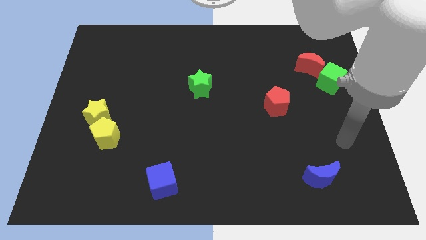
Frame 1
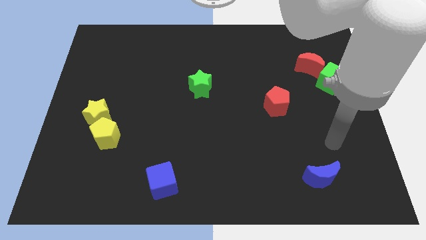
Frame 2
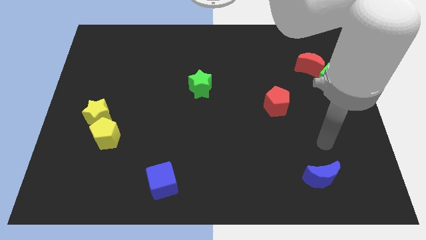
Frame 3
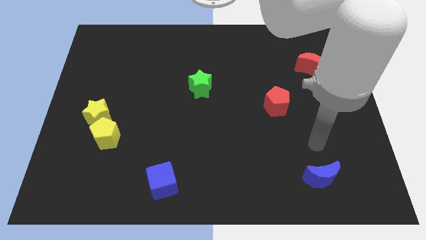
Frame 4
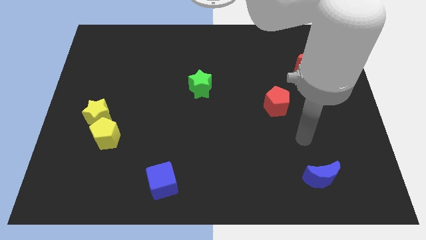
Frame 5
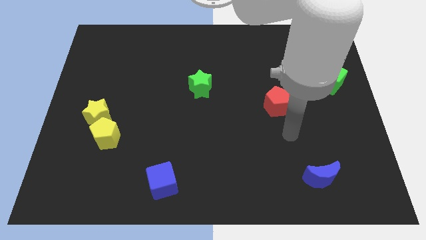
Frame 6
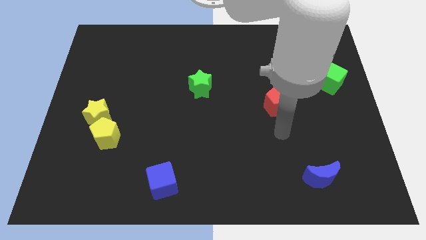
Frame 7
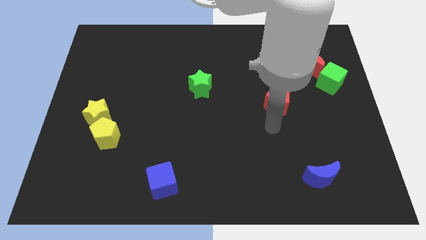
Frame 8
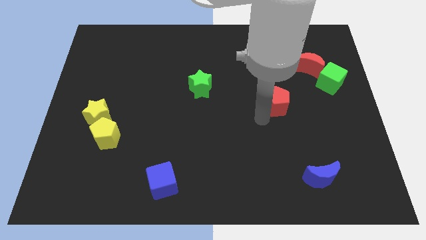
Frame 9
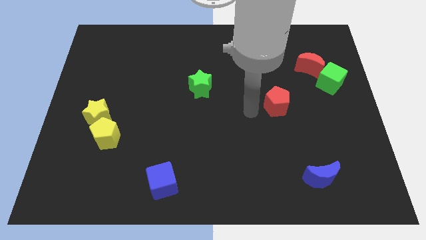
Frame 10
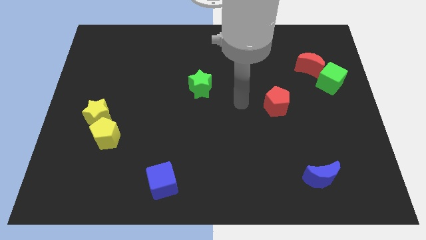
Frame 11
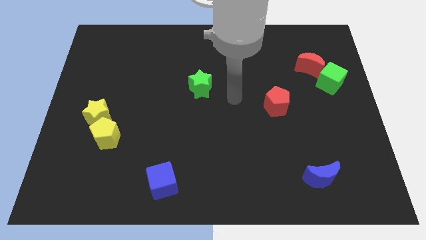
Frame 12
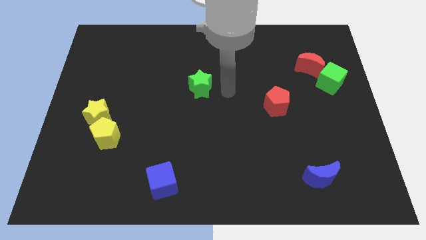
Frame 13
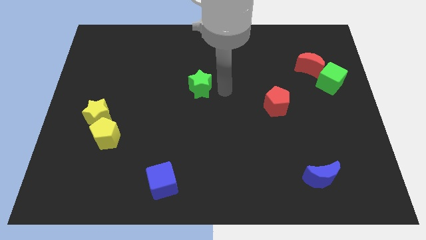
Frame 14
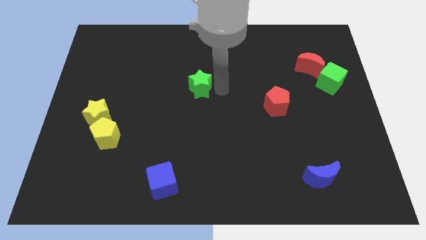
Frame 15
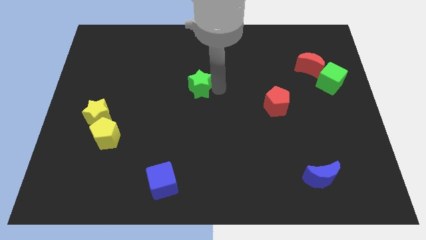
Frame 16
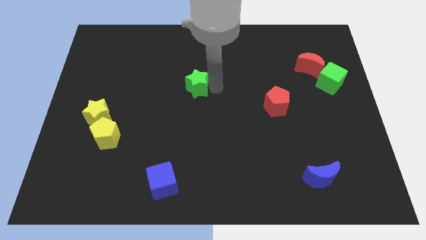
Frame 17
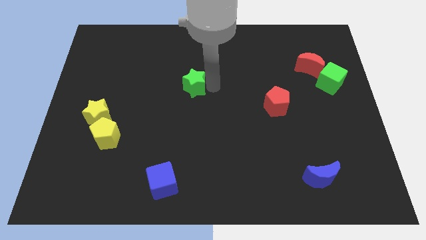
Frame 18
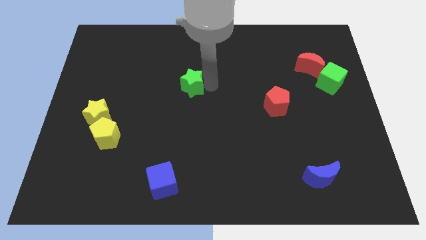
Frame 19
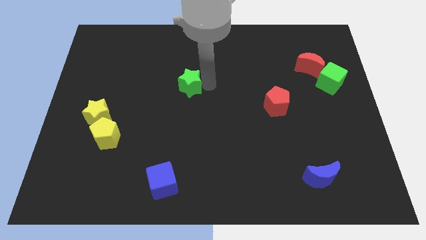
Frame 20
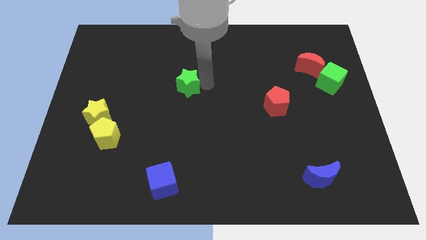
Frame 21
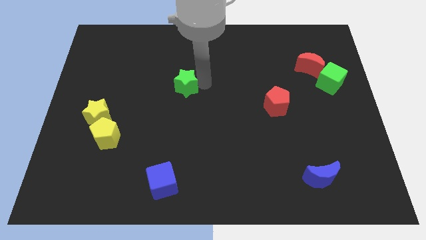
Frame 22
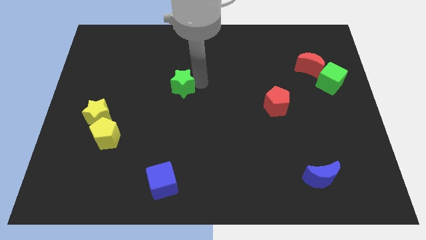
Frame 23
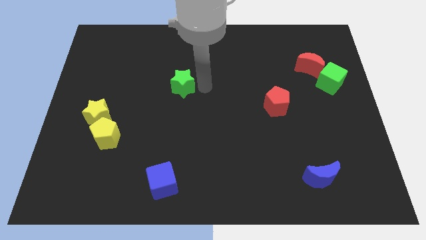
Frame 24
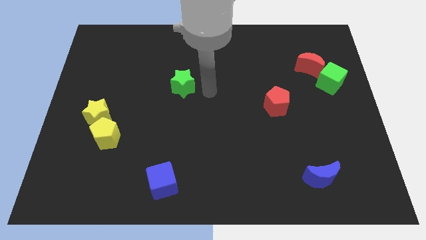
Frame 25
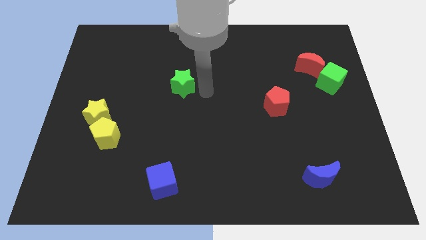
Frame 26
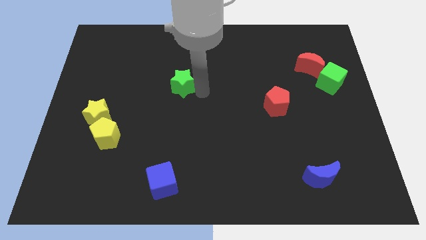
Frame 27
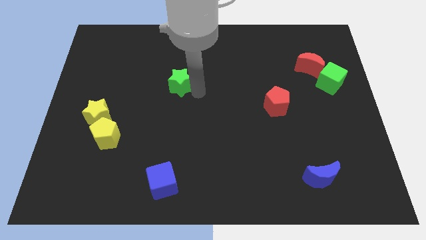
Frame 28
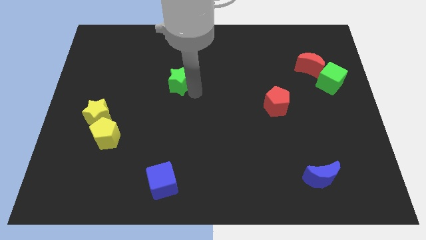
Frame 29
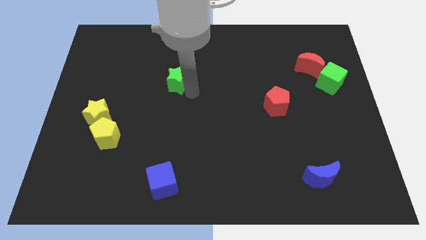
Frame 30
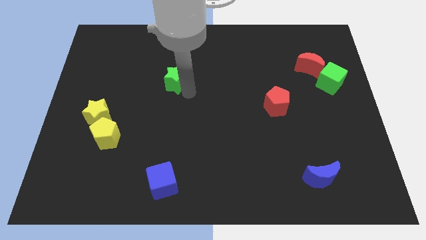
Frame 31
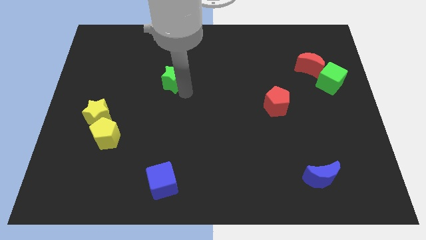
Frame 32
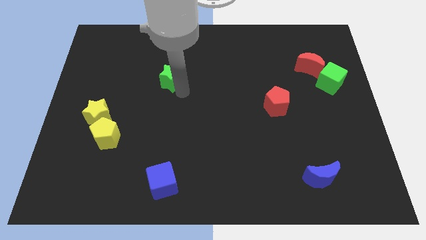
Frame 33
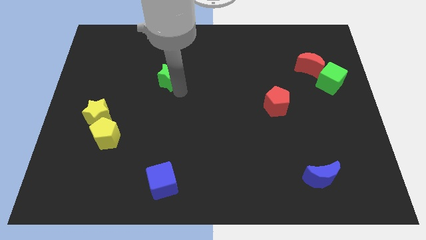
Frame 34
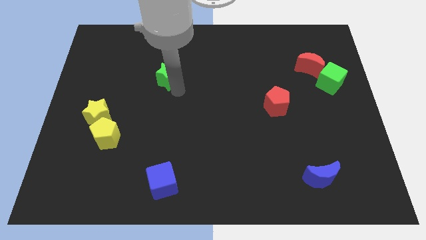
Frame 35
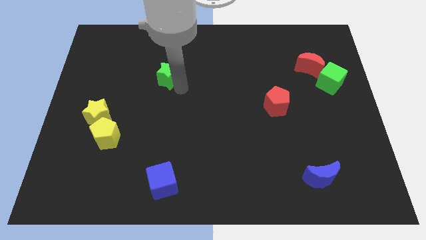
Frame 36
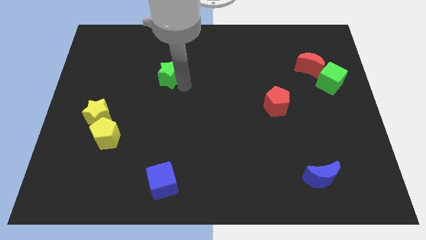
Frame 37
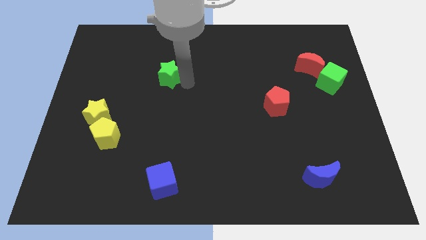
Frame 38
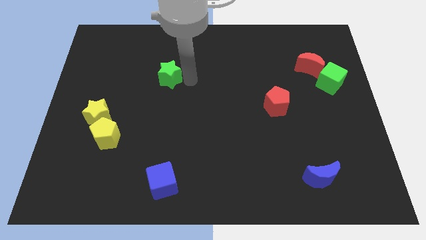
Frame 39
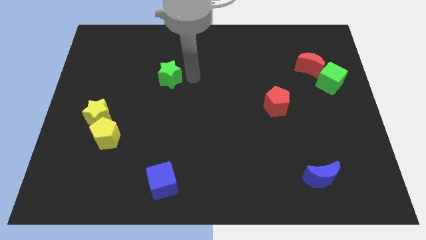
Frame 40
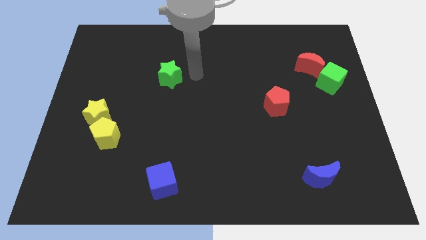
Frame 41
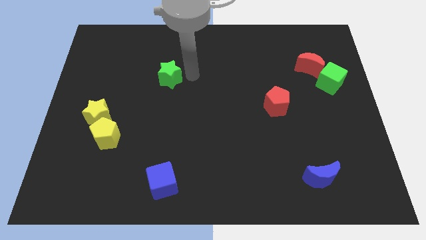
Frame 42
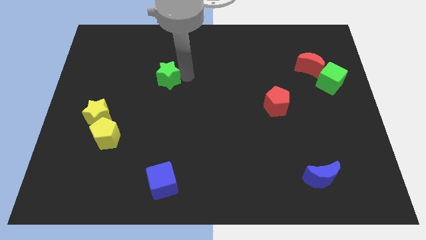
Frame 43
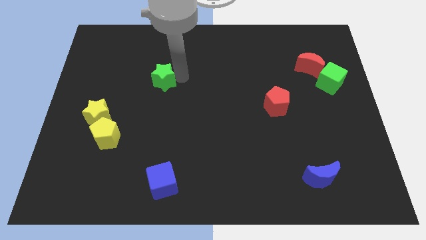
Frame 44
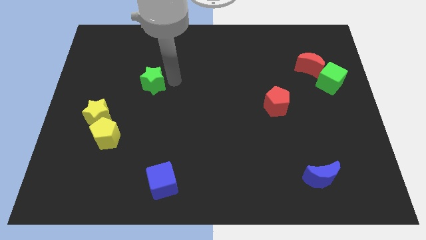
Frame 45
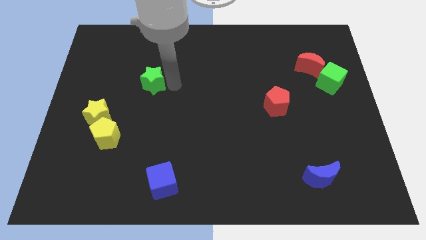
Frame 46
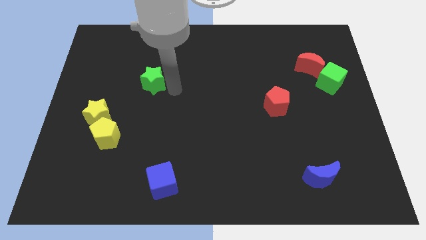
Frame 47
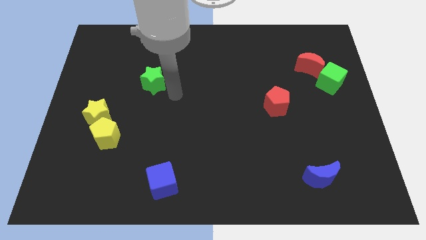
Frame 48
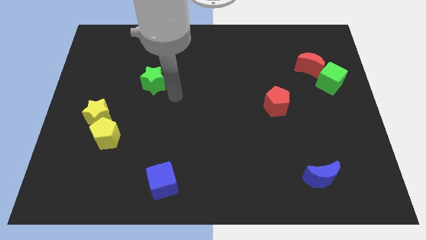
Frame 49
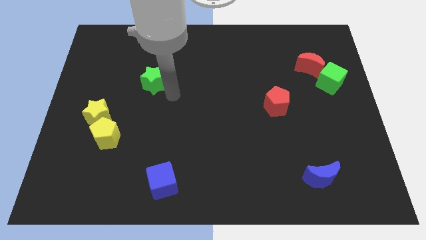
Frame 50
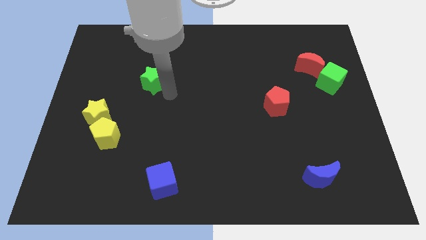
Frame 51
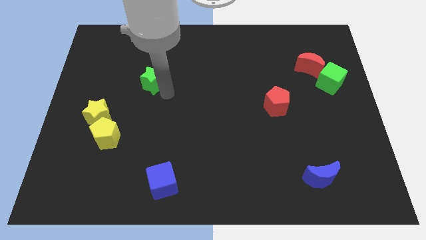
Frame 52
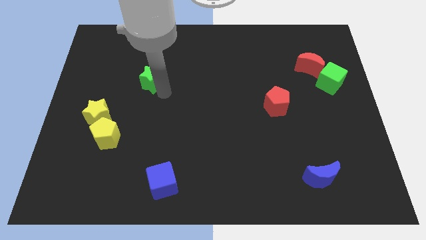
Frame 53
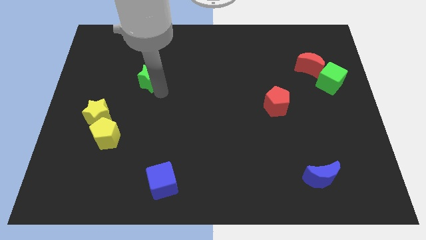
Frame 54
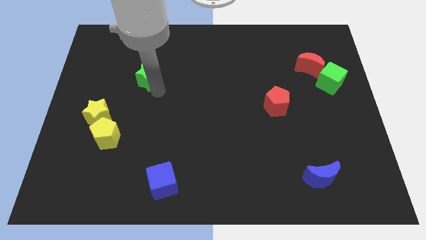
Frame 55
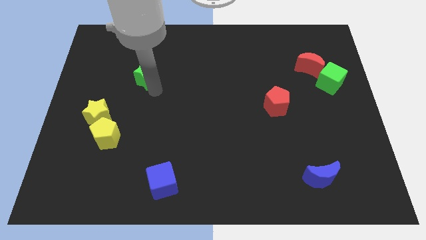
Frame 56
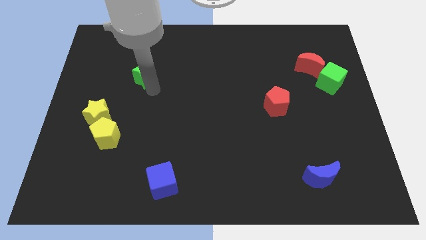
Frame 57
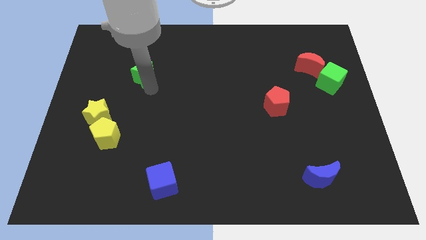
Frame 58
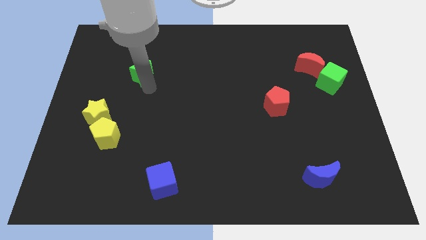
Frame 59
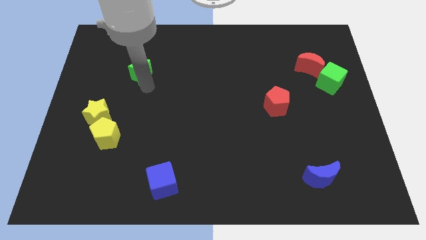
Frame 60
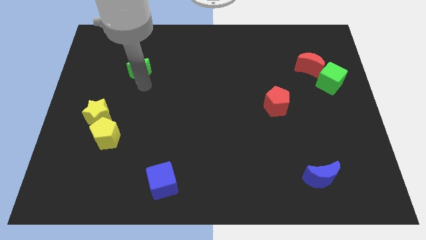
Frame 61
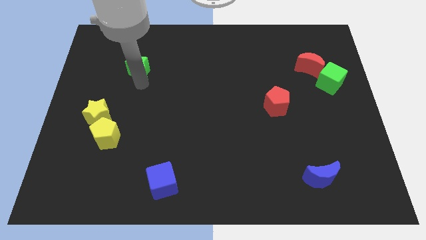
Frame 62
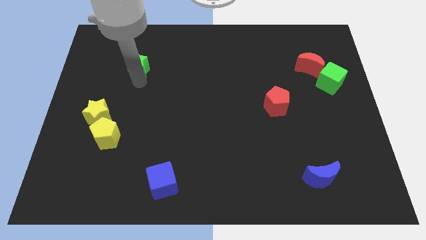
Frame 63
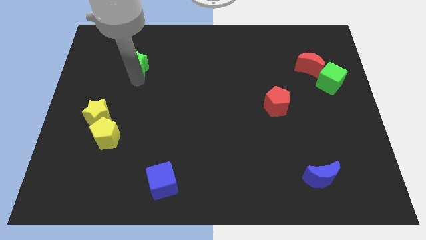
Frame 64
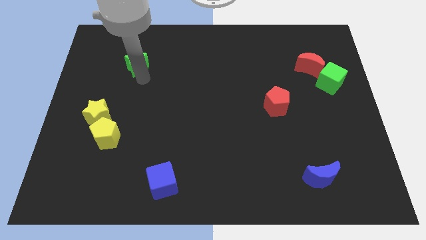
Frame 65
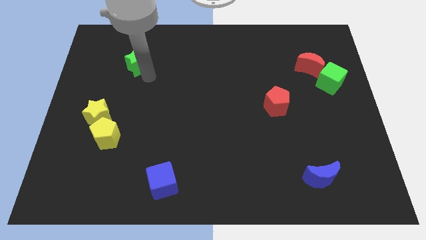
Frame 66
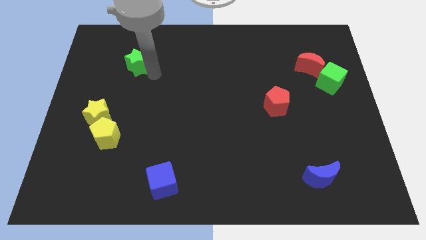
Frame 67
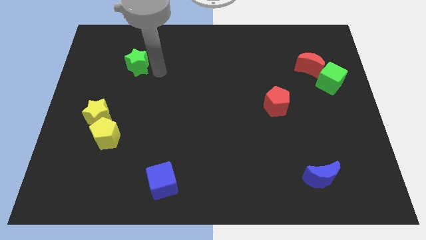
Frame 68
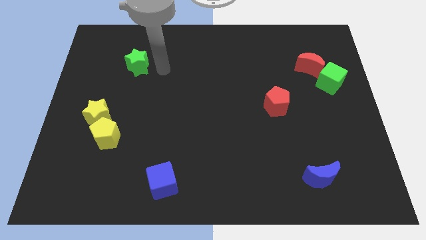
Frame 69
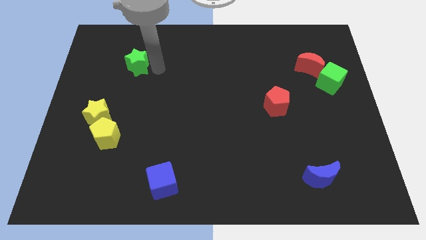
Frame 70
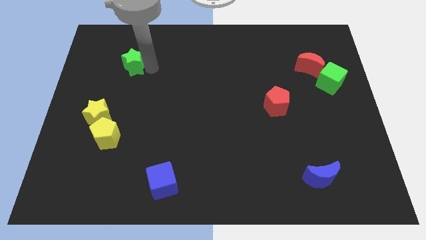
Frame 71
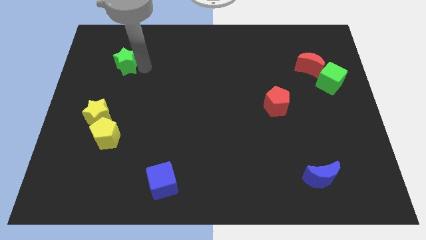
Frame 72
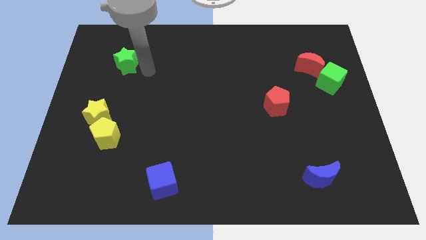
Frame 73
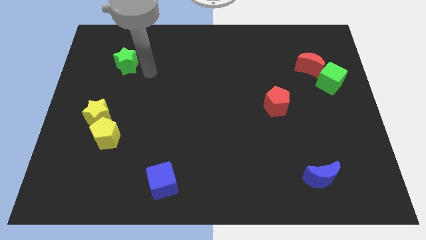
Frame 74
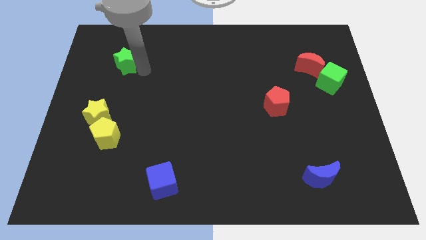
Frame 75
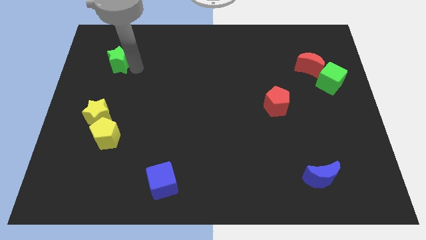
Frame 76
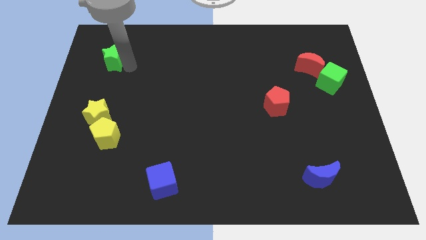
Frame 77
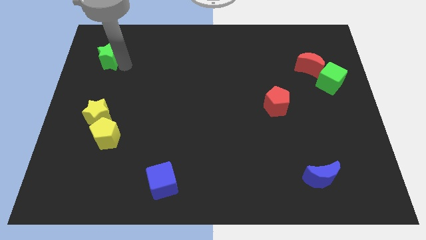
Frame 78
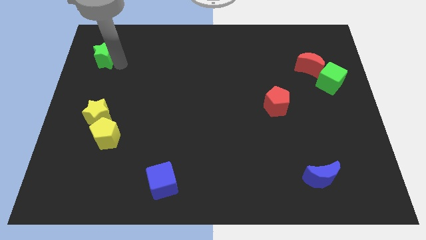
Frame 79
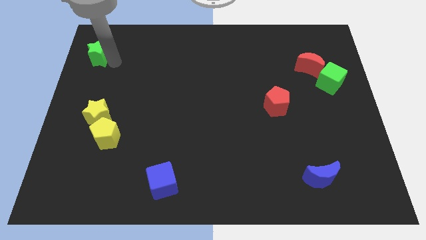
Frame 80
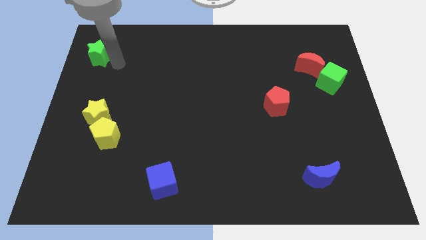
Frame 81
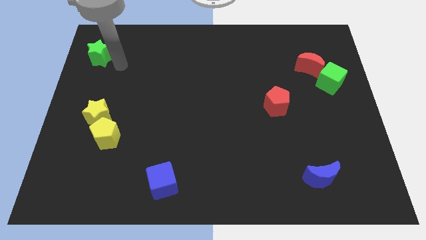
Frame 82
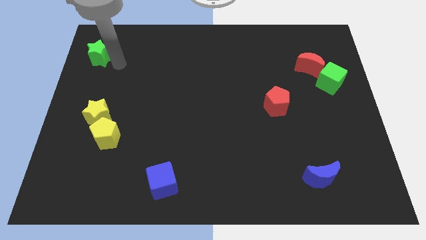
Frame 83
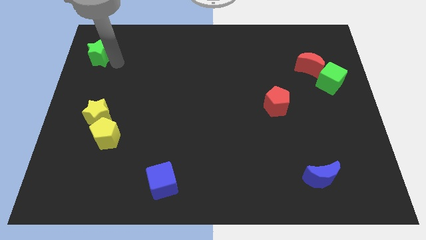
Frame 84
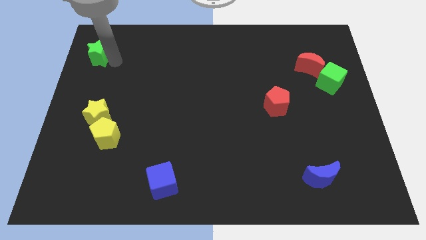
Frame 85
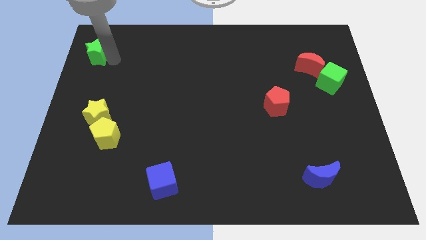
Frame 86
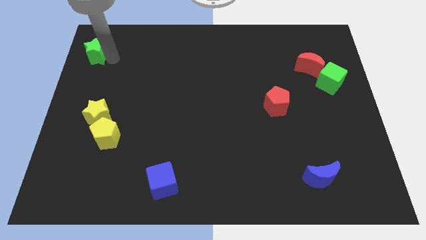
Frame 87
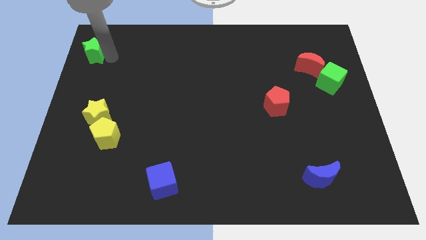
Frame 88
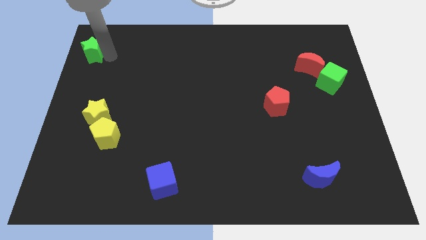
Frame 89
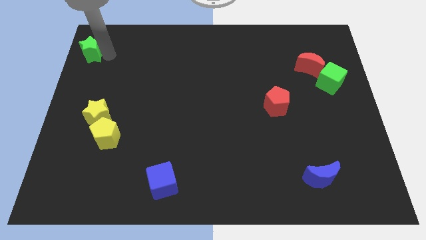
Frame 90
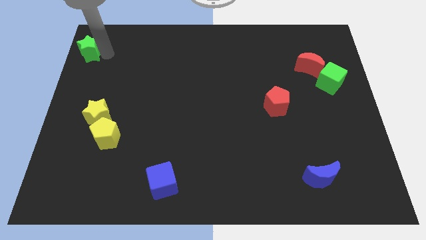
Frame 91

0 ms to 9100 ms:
put the green star to the top left
